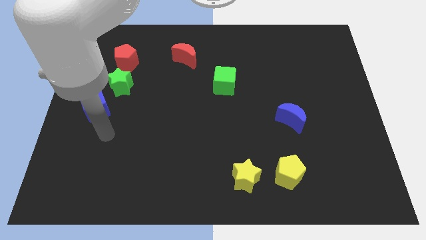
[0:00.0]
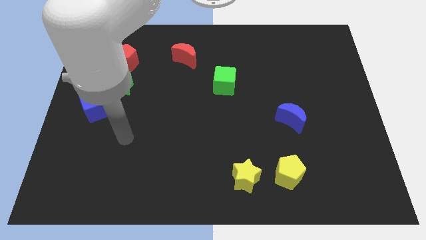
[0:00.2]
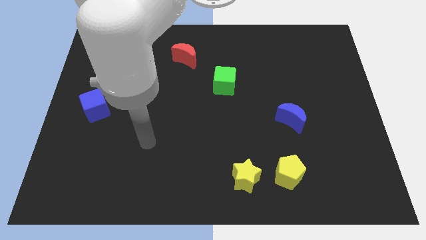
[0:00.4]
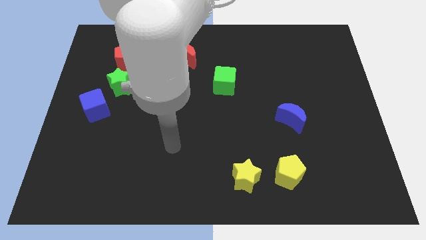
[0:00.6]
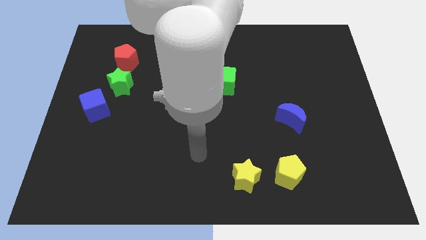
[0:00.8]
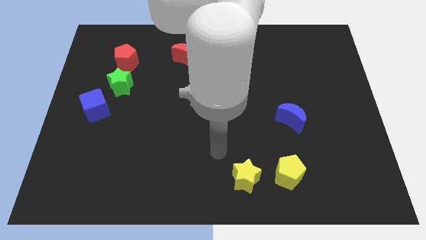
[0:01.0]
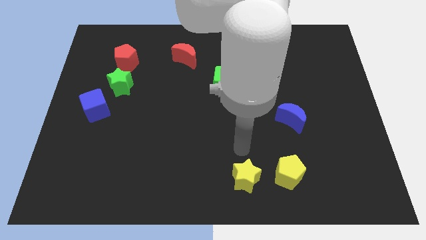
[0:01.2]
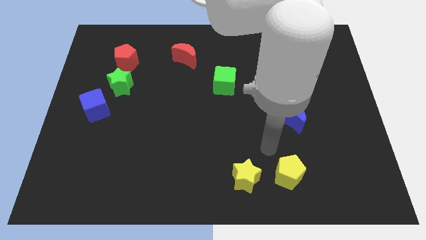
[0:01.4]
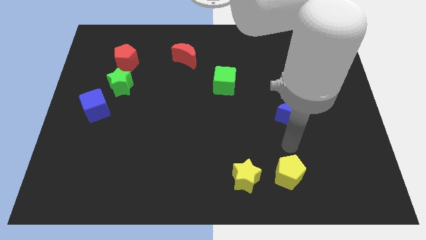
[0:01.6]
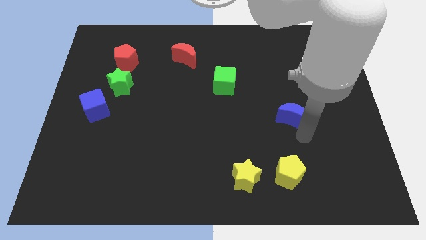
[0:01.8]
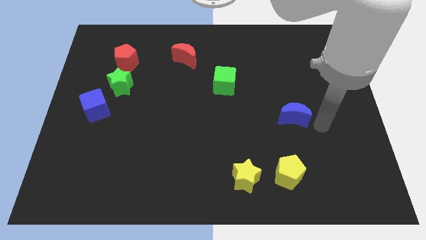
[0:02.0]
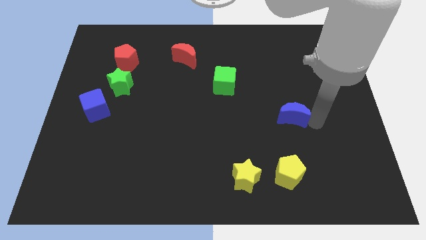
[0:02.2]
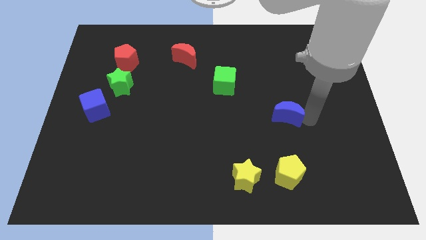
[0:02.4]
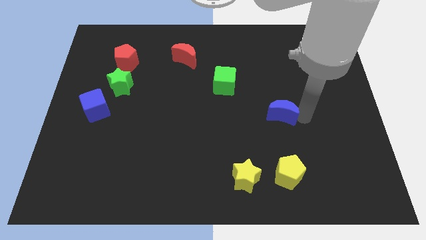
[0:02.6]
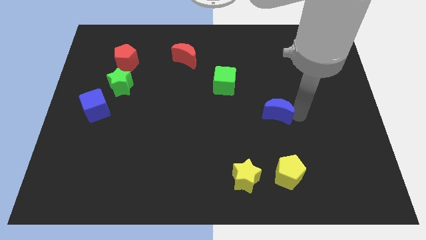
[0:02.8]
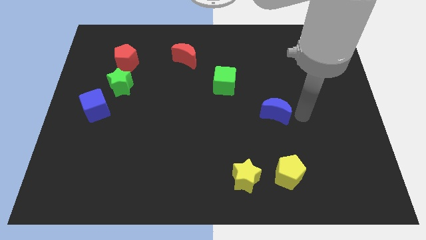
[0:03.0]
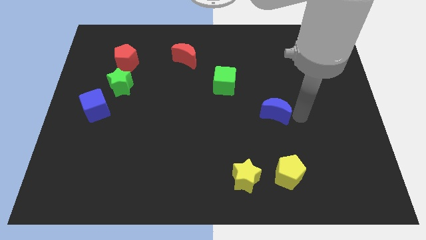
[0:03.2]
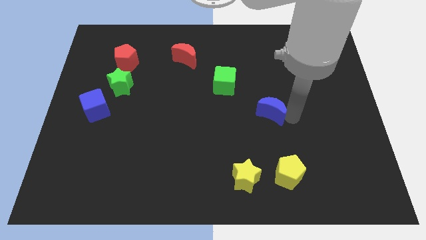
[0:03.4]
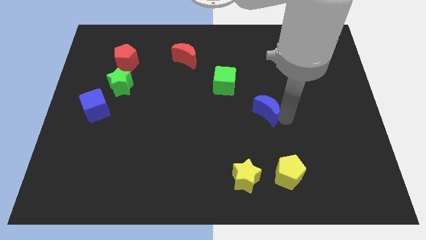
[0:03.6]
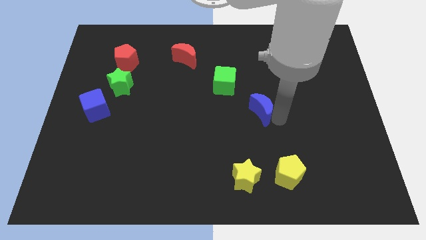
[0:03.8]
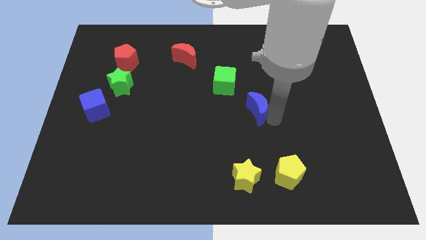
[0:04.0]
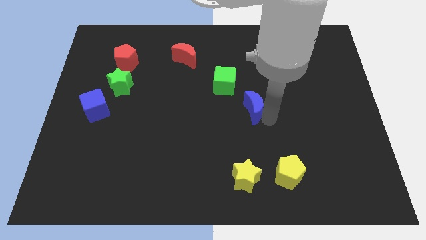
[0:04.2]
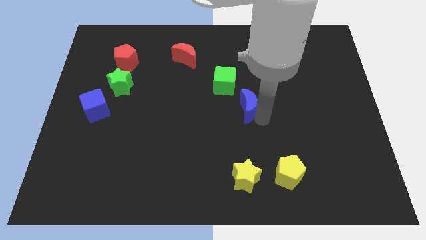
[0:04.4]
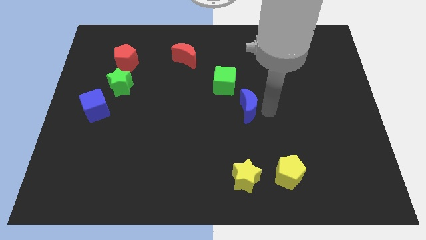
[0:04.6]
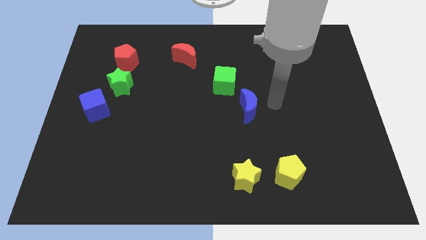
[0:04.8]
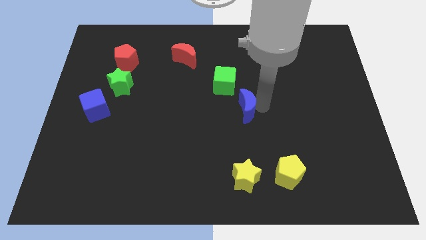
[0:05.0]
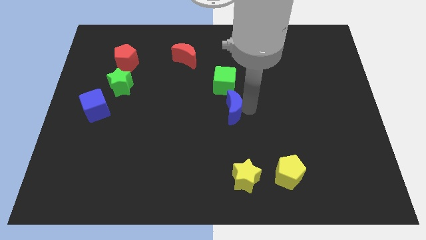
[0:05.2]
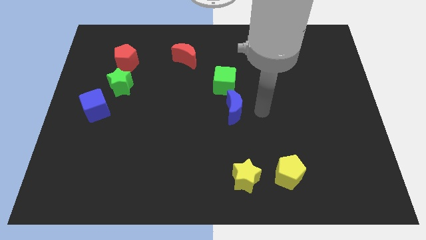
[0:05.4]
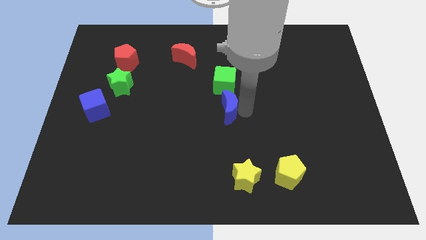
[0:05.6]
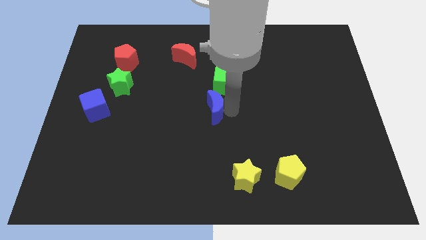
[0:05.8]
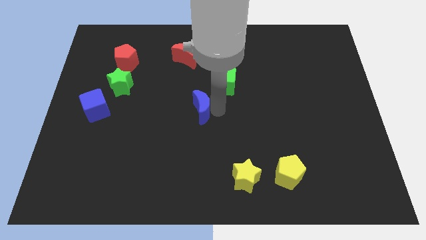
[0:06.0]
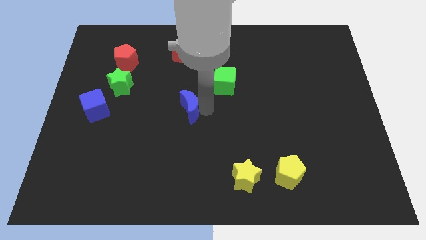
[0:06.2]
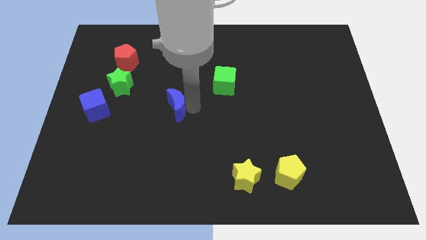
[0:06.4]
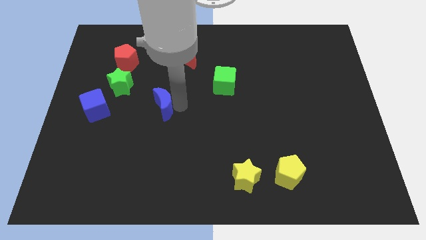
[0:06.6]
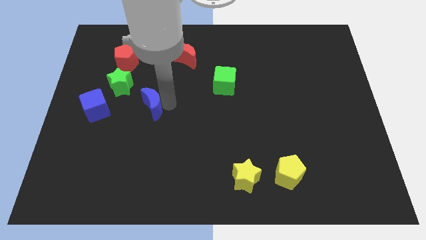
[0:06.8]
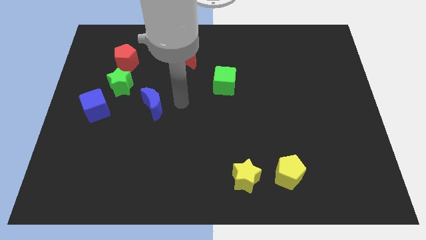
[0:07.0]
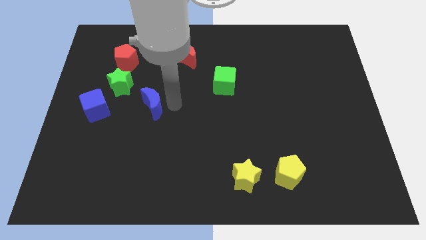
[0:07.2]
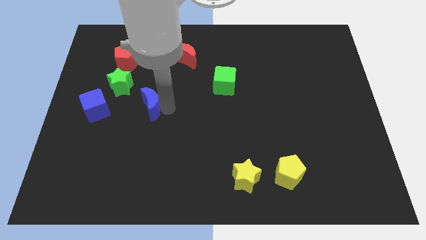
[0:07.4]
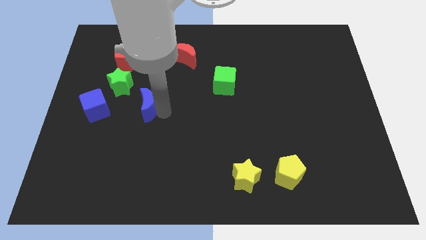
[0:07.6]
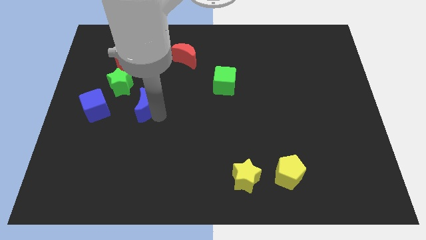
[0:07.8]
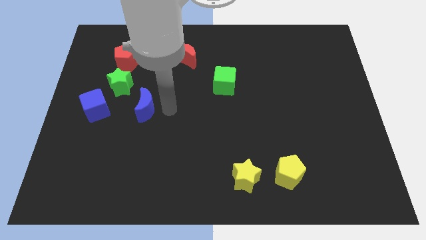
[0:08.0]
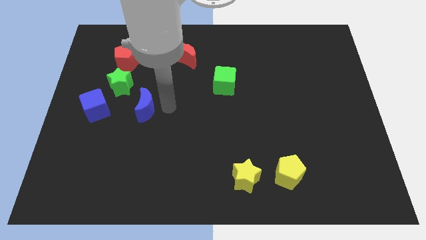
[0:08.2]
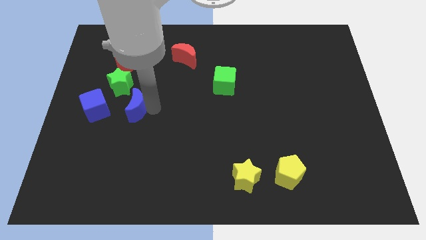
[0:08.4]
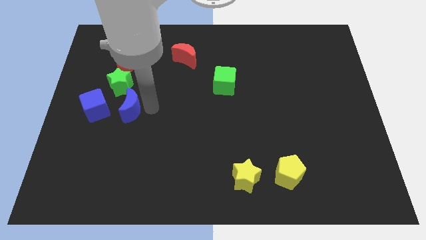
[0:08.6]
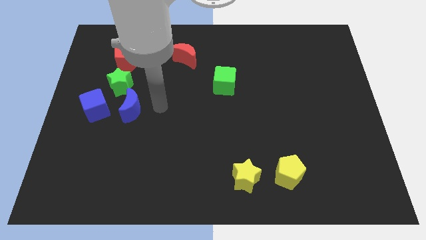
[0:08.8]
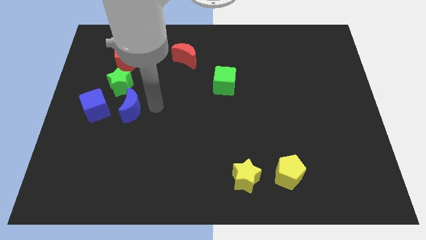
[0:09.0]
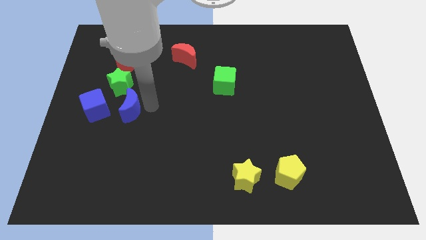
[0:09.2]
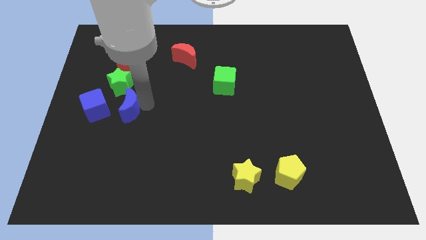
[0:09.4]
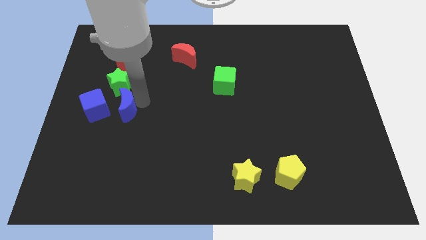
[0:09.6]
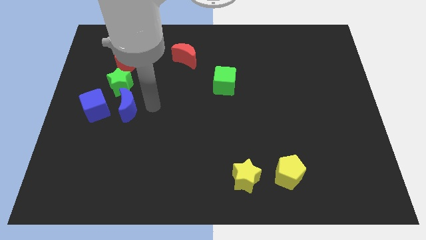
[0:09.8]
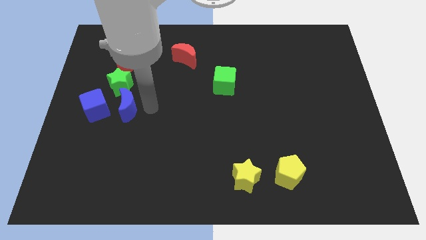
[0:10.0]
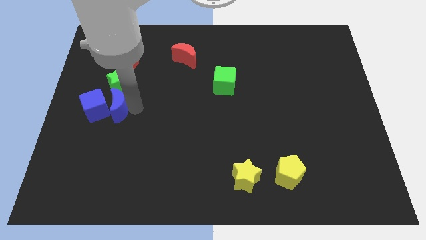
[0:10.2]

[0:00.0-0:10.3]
slide the blue moon next to the blue cube

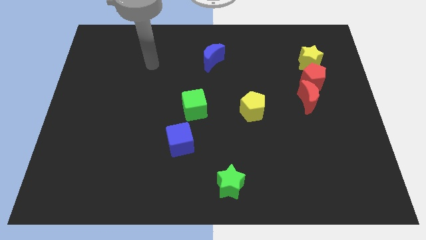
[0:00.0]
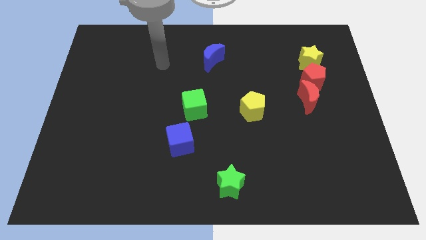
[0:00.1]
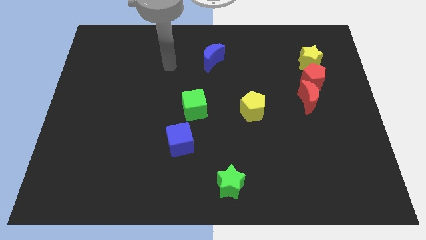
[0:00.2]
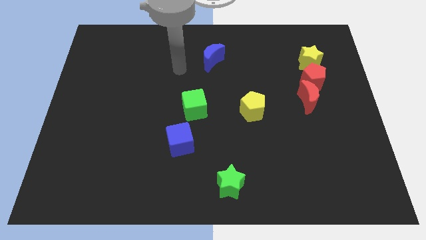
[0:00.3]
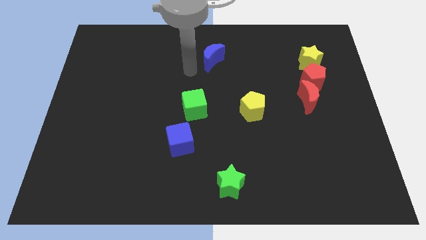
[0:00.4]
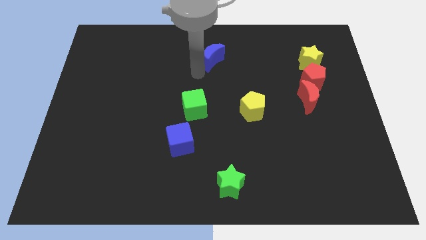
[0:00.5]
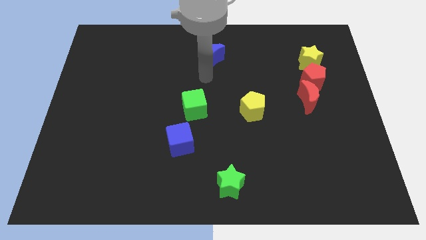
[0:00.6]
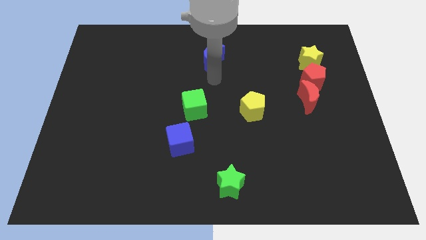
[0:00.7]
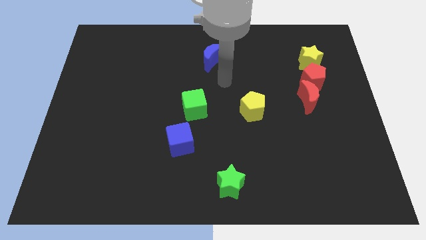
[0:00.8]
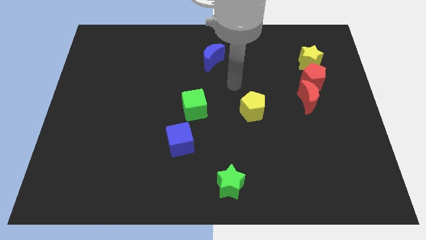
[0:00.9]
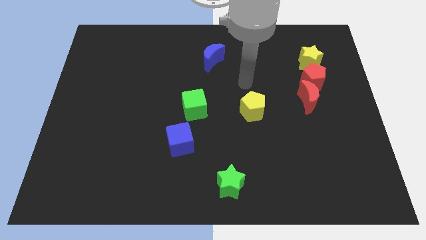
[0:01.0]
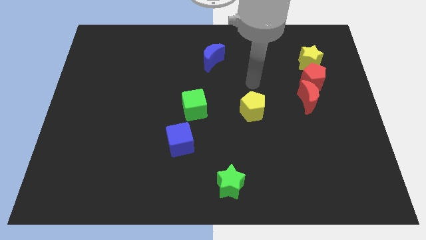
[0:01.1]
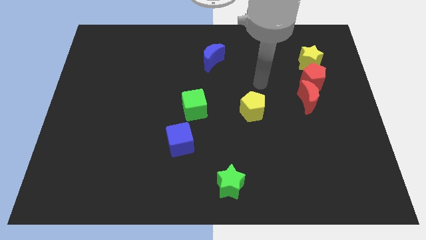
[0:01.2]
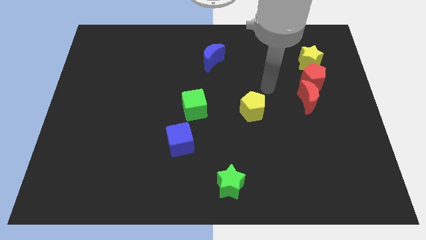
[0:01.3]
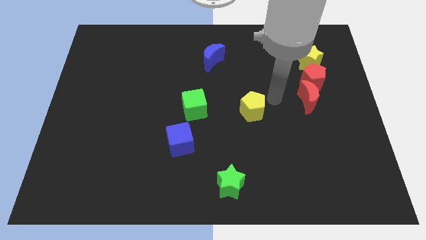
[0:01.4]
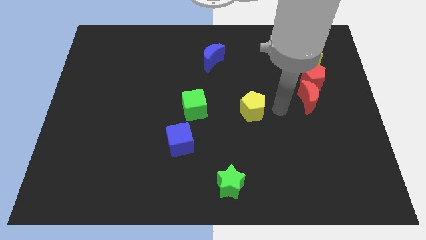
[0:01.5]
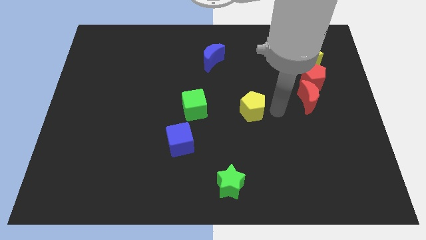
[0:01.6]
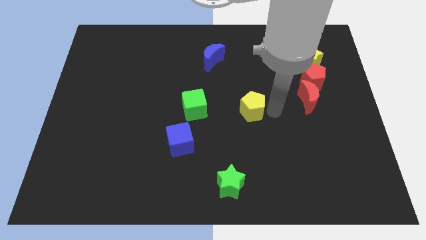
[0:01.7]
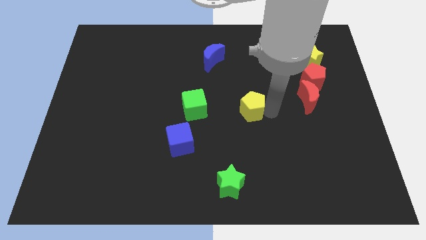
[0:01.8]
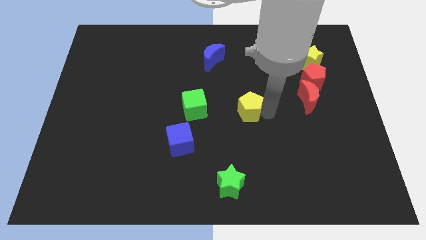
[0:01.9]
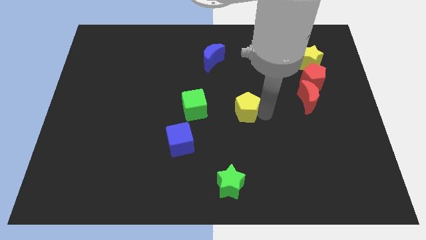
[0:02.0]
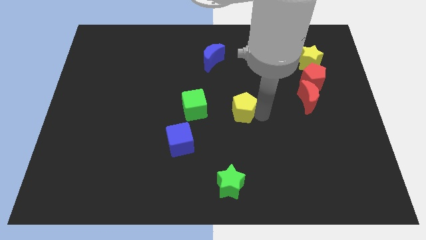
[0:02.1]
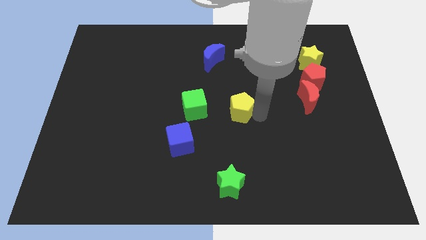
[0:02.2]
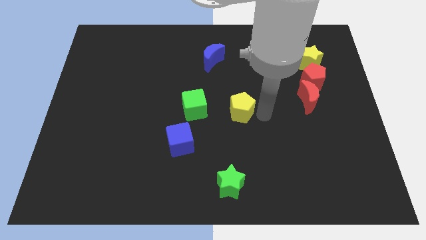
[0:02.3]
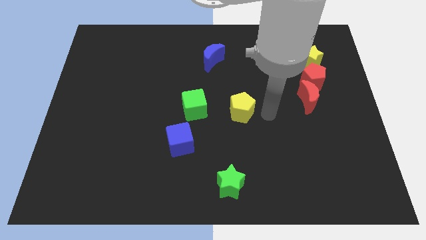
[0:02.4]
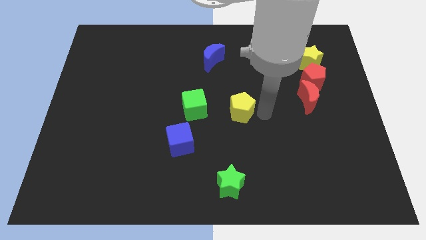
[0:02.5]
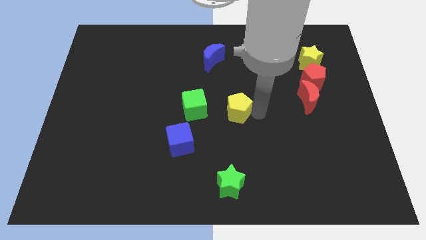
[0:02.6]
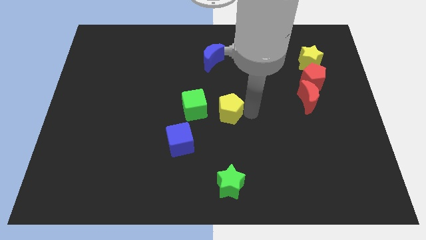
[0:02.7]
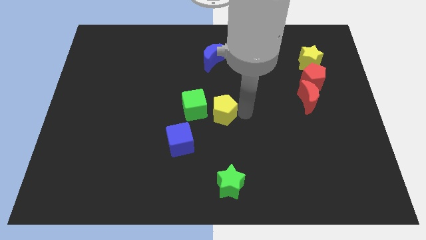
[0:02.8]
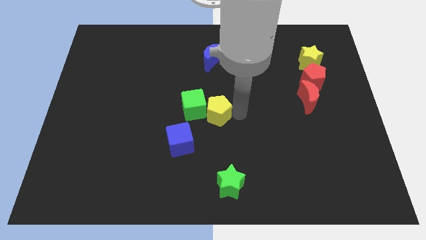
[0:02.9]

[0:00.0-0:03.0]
push the yellow pentagon to the green cube
